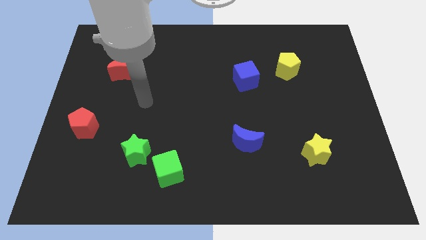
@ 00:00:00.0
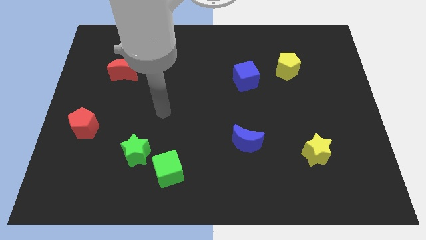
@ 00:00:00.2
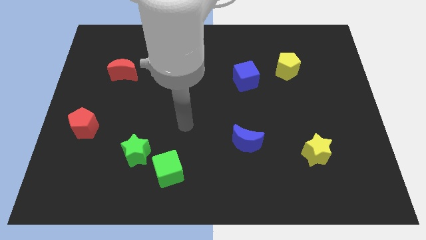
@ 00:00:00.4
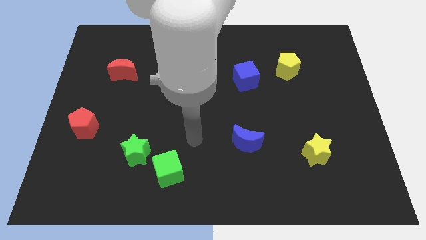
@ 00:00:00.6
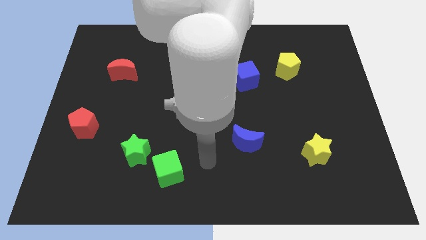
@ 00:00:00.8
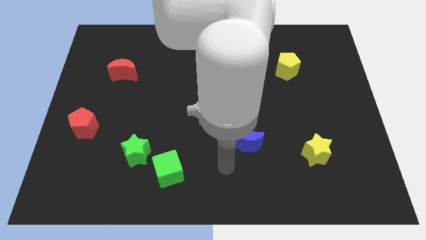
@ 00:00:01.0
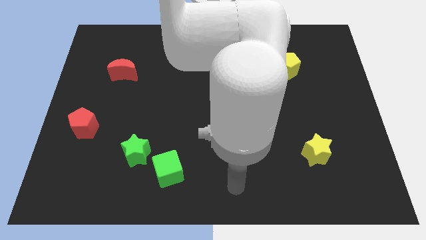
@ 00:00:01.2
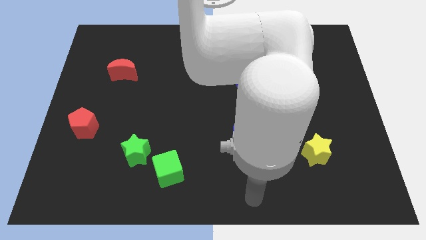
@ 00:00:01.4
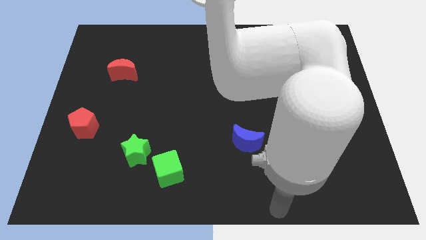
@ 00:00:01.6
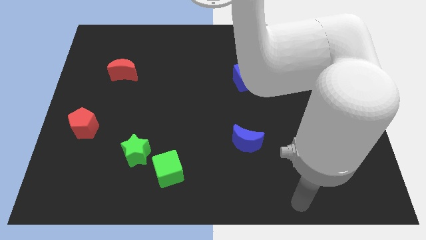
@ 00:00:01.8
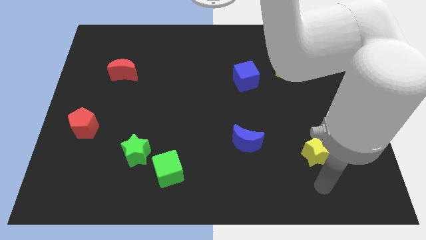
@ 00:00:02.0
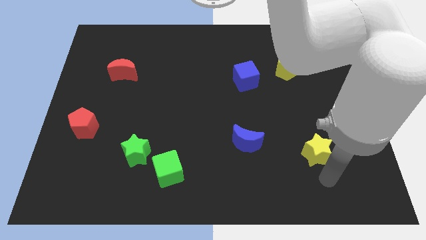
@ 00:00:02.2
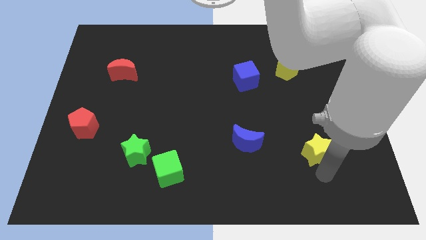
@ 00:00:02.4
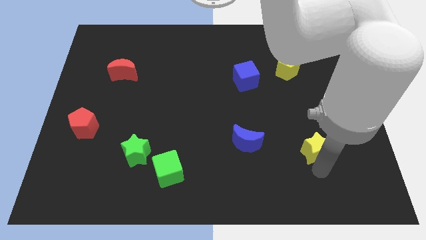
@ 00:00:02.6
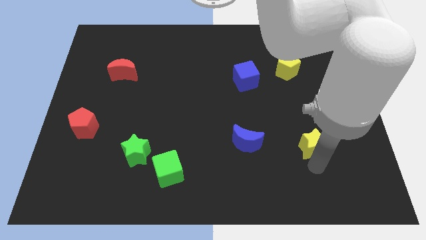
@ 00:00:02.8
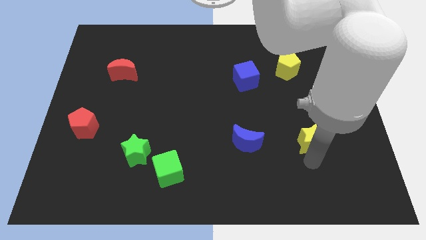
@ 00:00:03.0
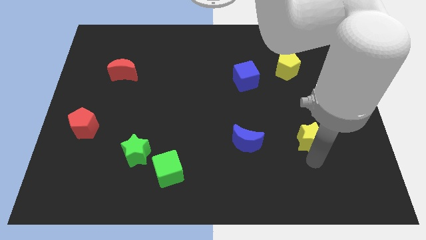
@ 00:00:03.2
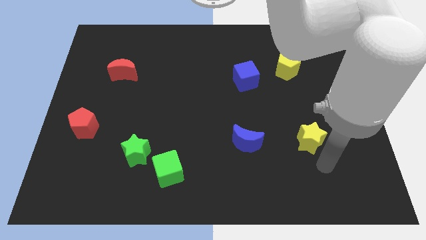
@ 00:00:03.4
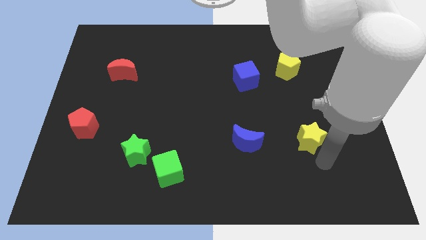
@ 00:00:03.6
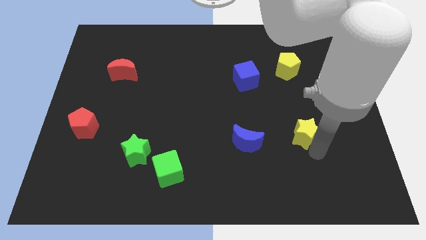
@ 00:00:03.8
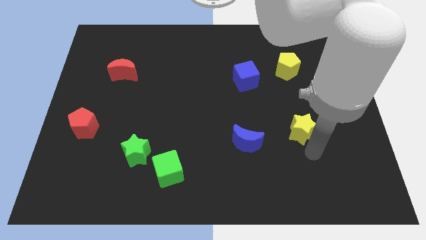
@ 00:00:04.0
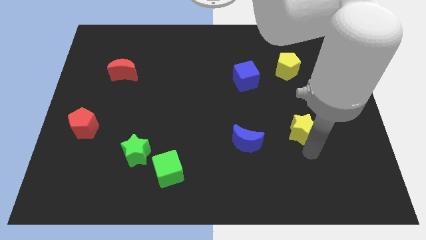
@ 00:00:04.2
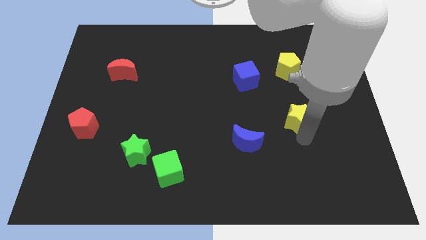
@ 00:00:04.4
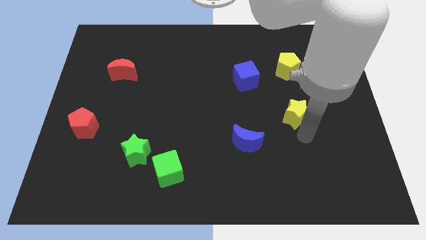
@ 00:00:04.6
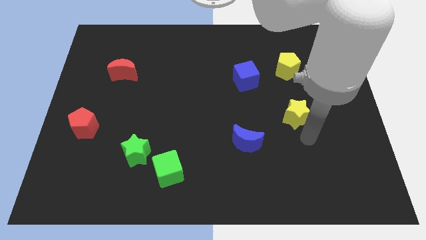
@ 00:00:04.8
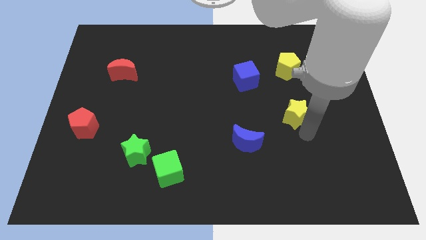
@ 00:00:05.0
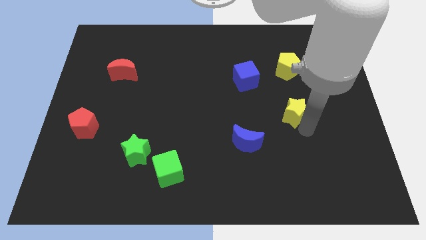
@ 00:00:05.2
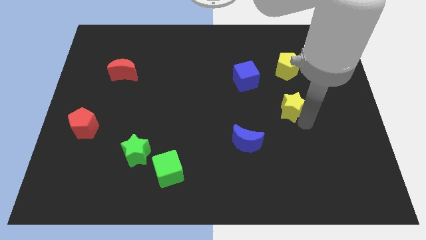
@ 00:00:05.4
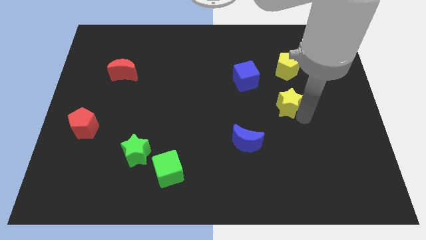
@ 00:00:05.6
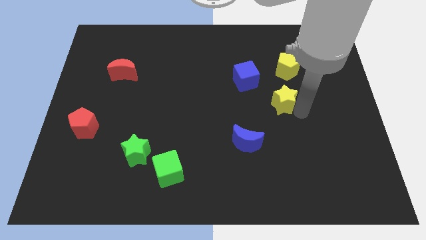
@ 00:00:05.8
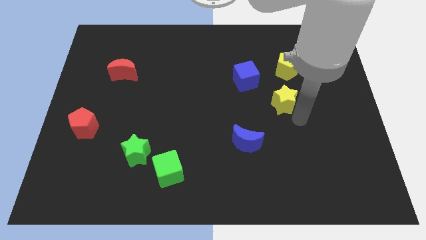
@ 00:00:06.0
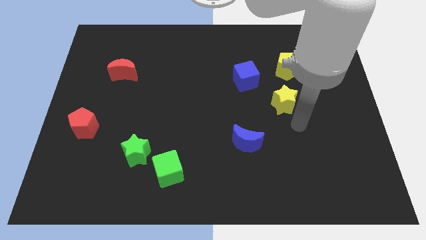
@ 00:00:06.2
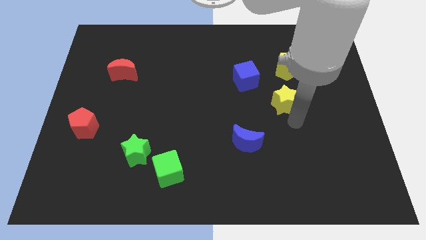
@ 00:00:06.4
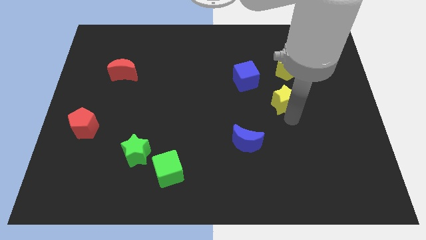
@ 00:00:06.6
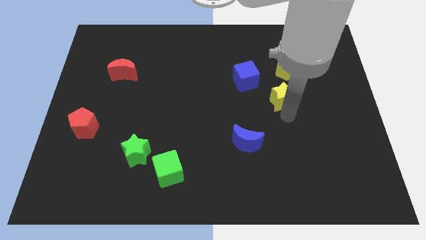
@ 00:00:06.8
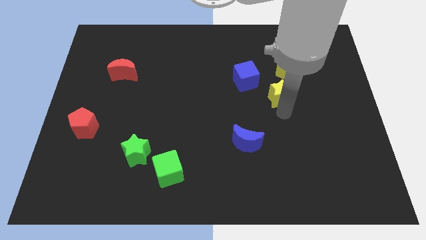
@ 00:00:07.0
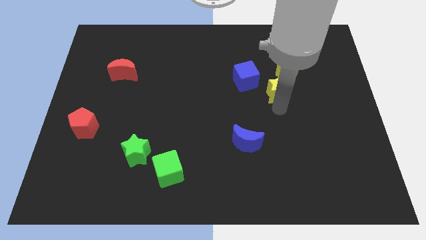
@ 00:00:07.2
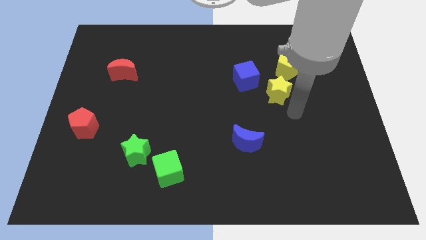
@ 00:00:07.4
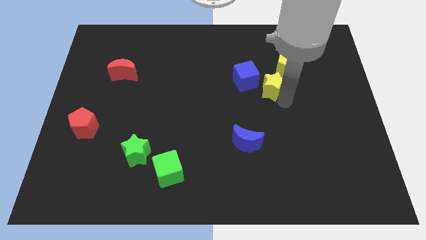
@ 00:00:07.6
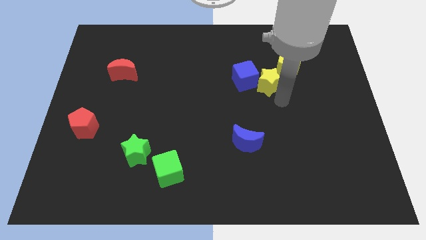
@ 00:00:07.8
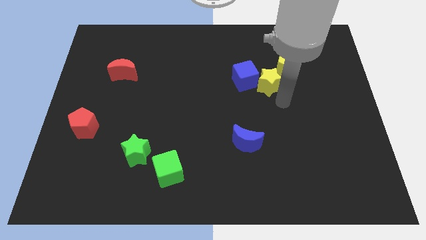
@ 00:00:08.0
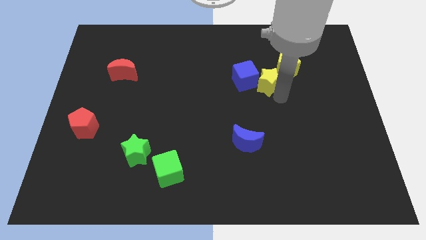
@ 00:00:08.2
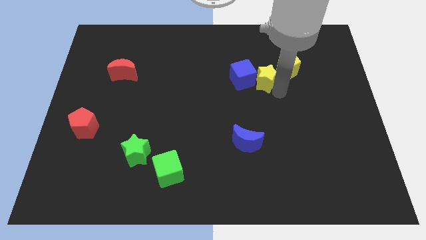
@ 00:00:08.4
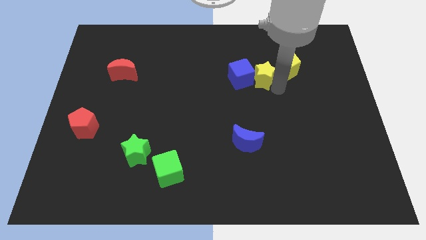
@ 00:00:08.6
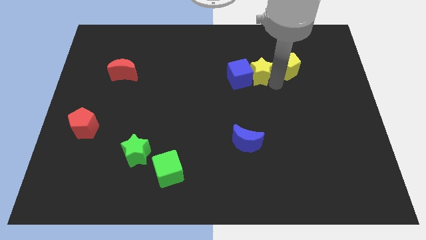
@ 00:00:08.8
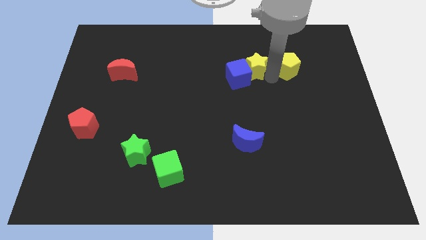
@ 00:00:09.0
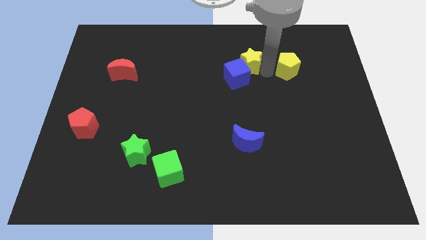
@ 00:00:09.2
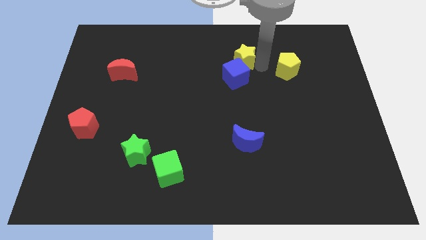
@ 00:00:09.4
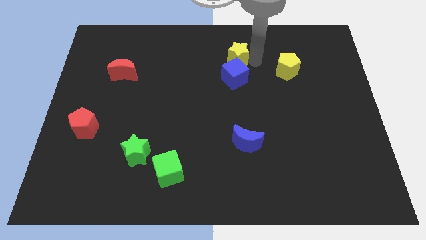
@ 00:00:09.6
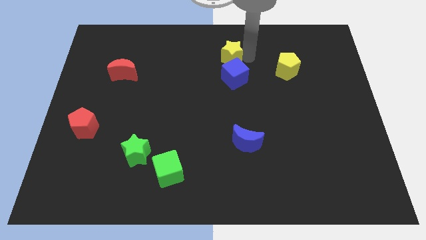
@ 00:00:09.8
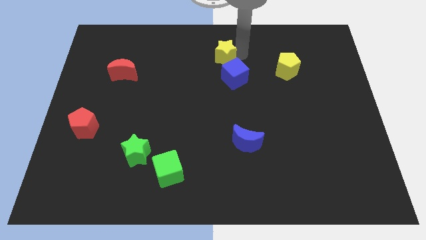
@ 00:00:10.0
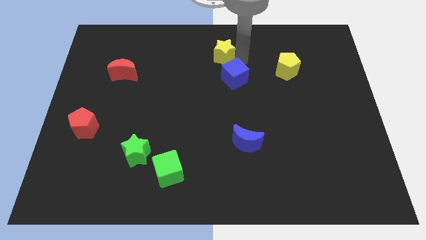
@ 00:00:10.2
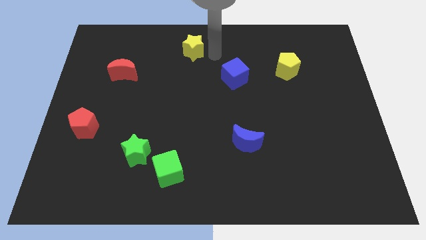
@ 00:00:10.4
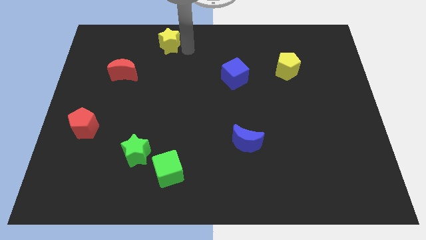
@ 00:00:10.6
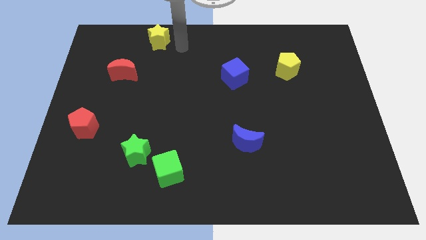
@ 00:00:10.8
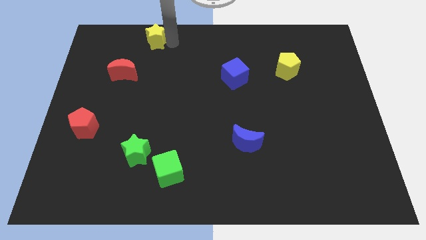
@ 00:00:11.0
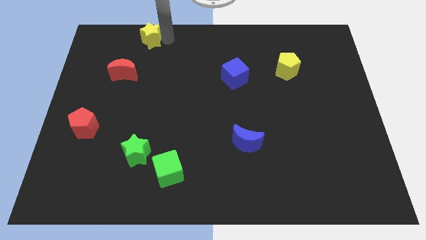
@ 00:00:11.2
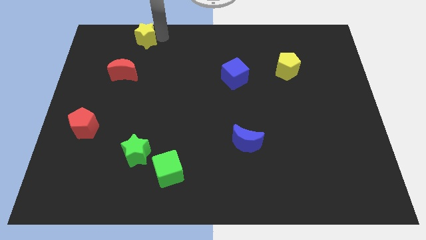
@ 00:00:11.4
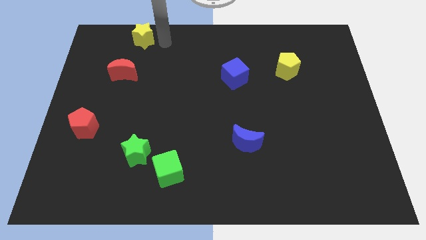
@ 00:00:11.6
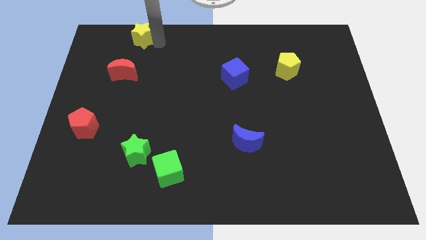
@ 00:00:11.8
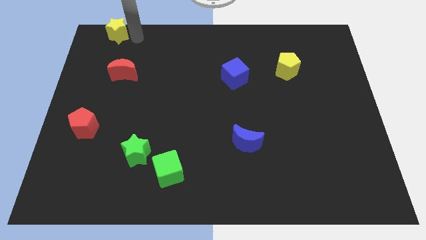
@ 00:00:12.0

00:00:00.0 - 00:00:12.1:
slide the yellow star to the top left

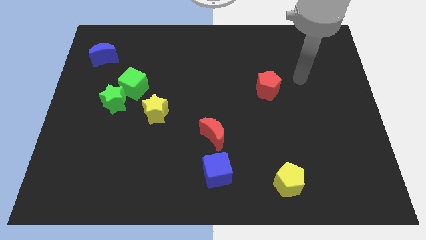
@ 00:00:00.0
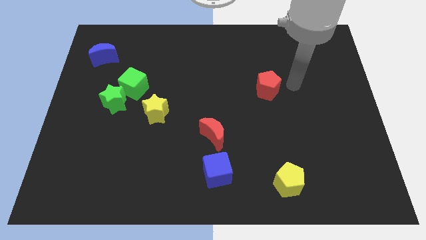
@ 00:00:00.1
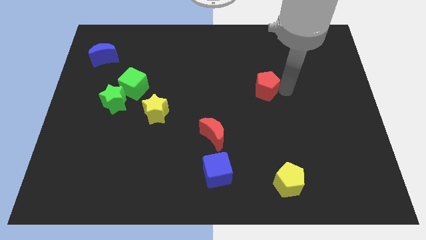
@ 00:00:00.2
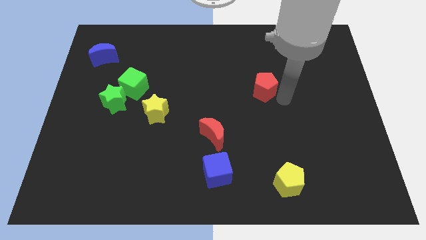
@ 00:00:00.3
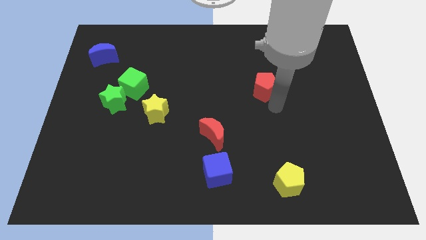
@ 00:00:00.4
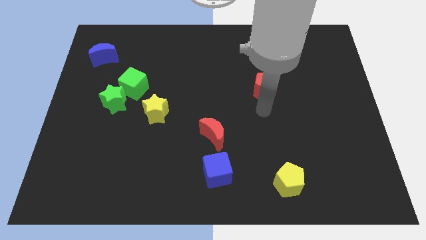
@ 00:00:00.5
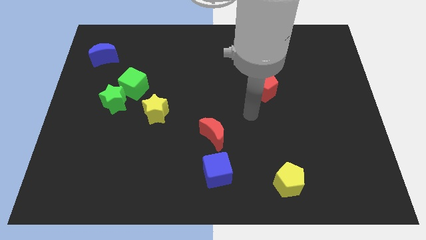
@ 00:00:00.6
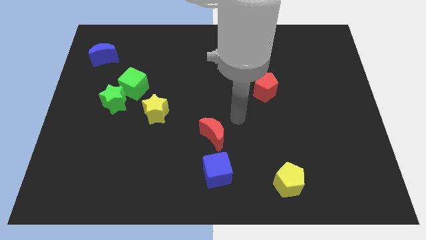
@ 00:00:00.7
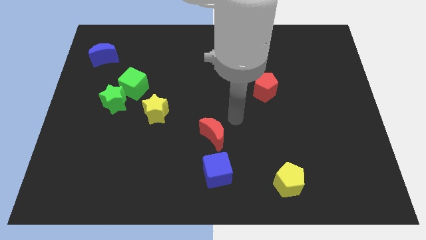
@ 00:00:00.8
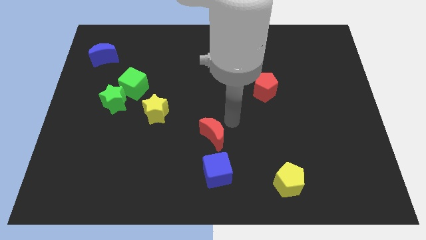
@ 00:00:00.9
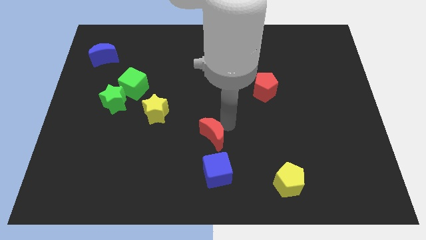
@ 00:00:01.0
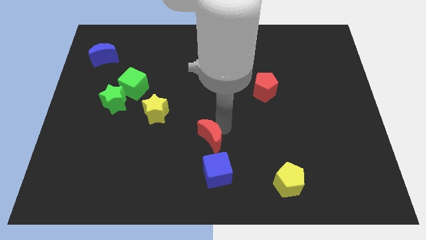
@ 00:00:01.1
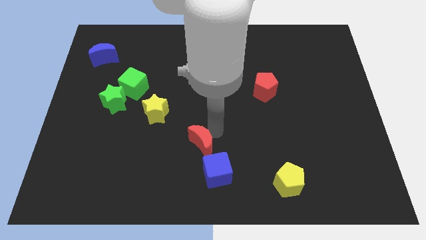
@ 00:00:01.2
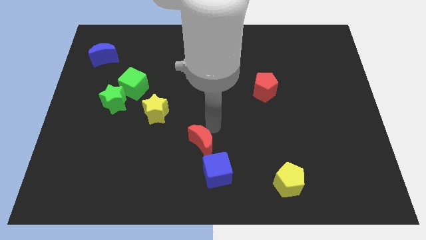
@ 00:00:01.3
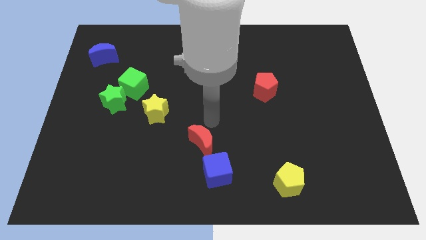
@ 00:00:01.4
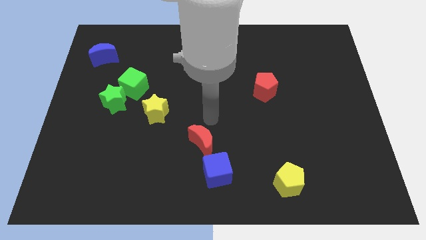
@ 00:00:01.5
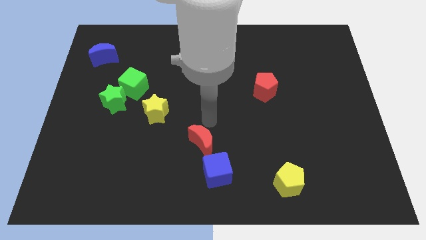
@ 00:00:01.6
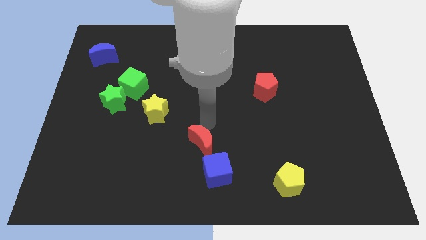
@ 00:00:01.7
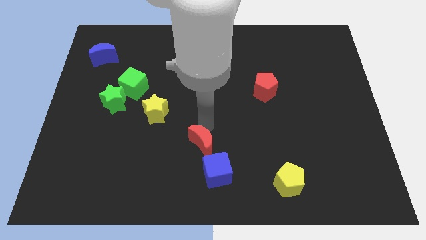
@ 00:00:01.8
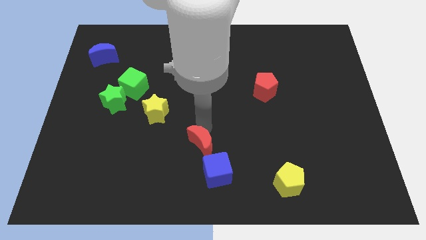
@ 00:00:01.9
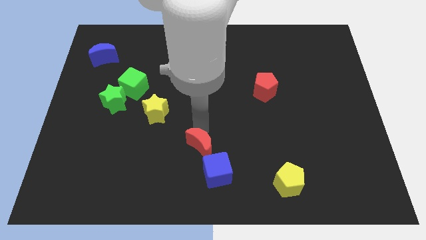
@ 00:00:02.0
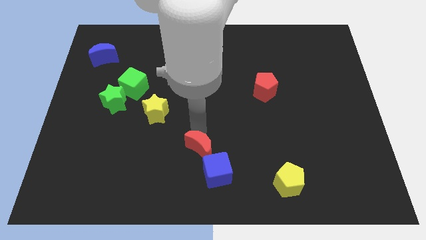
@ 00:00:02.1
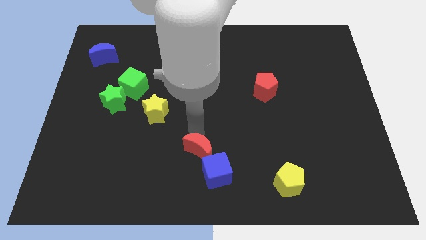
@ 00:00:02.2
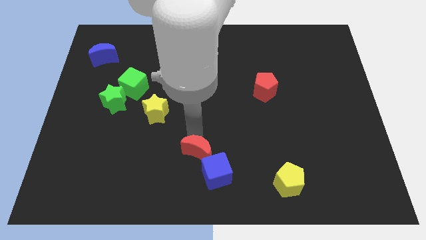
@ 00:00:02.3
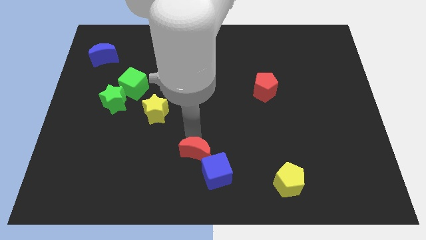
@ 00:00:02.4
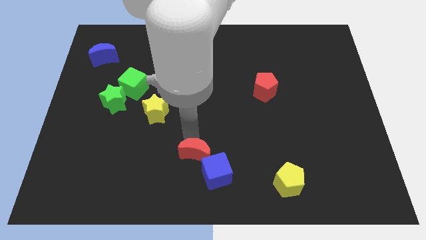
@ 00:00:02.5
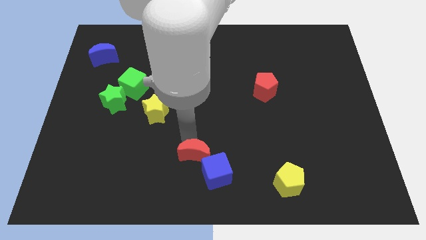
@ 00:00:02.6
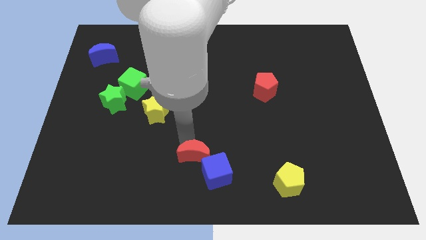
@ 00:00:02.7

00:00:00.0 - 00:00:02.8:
slide the red moon to the bottom
